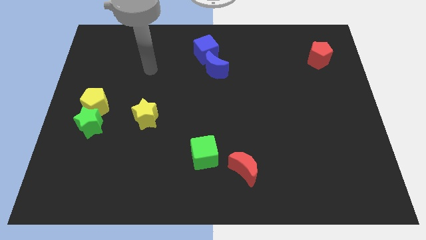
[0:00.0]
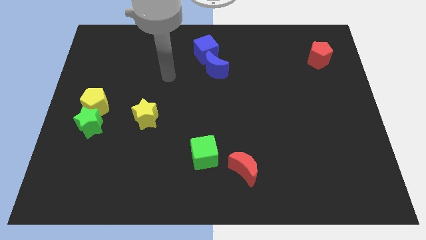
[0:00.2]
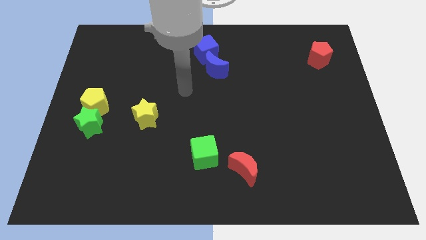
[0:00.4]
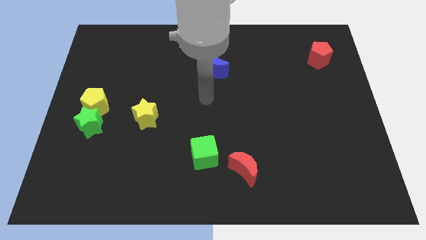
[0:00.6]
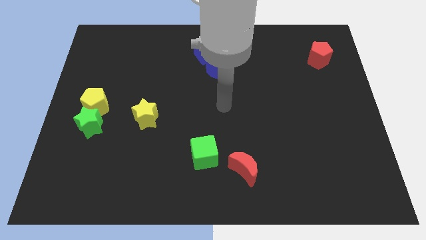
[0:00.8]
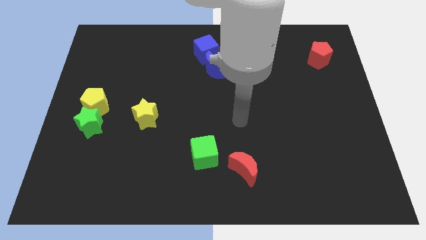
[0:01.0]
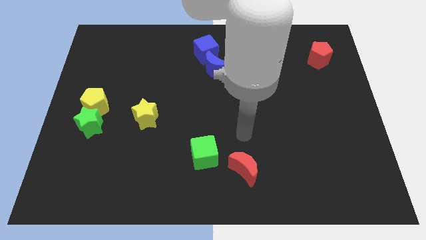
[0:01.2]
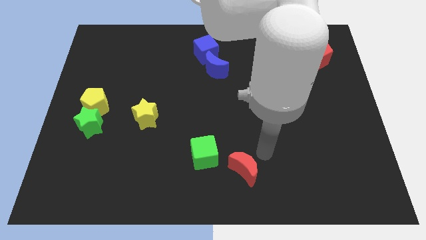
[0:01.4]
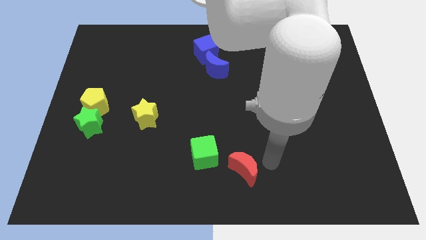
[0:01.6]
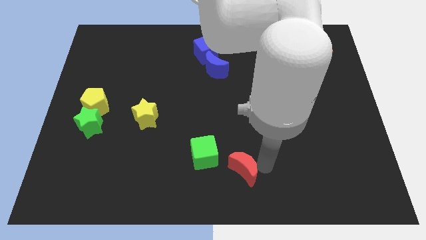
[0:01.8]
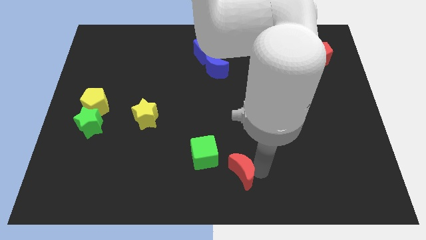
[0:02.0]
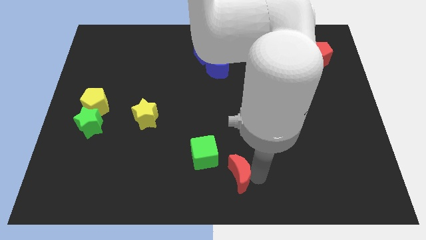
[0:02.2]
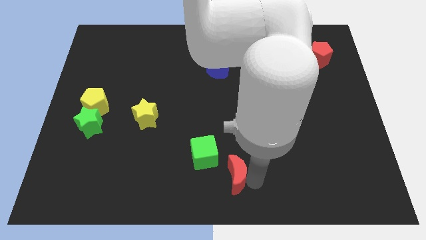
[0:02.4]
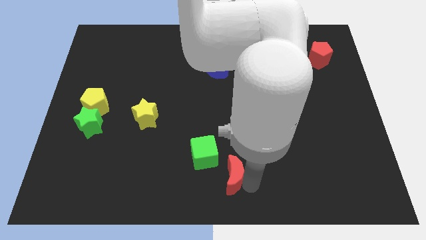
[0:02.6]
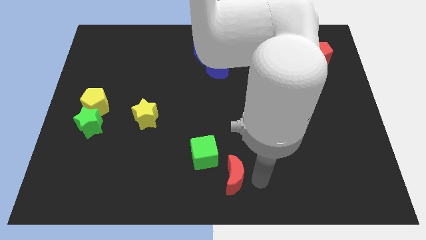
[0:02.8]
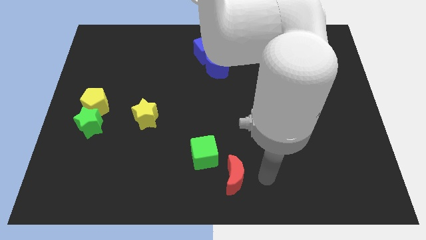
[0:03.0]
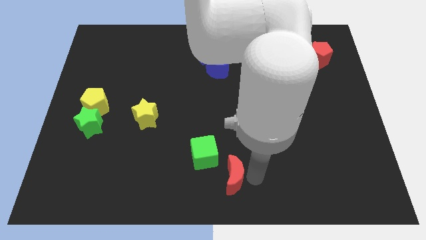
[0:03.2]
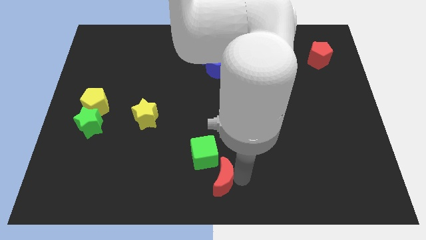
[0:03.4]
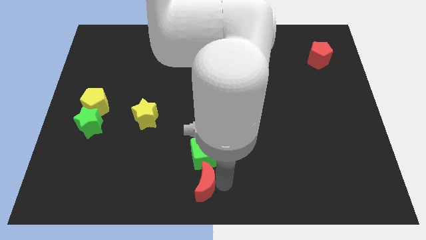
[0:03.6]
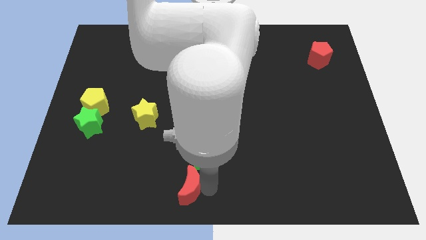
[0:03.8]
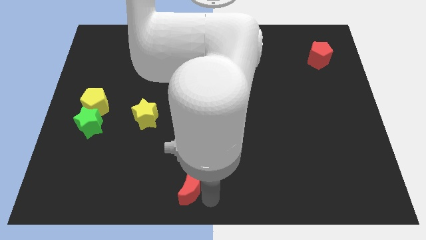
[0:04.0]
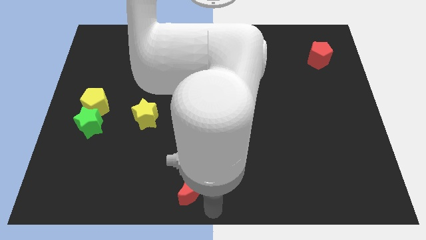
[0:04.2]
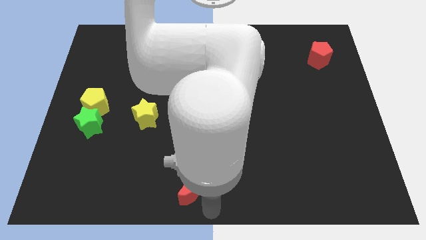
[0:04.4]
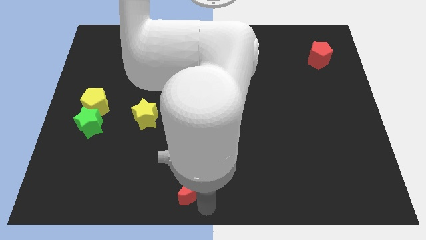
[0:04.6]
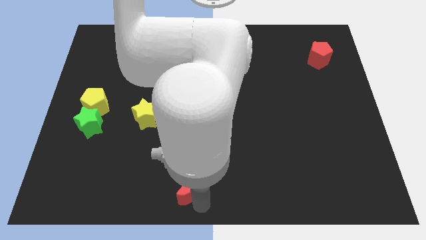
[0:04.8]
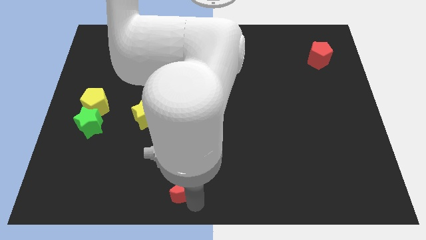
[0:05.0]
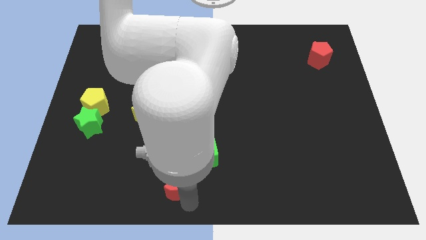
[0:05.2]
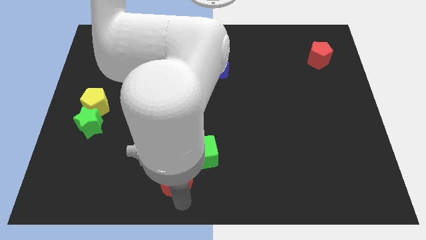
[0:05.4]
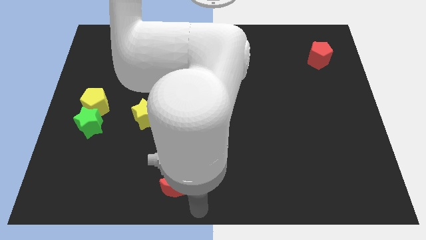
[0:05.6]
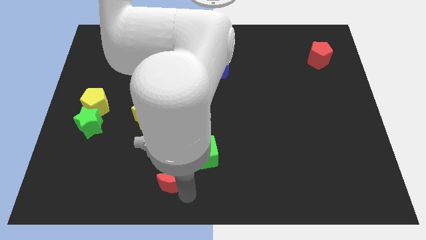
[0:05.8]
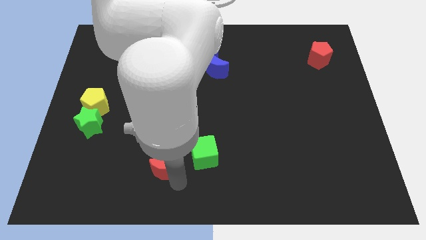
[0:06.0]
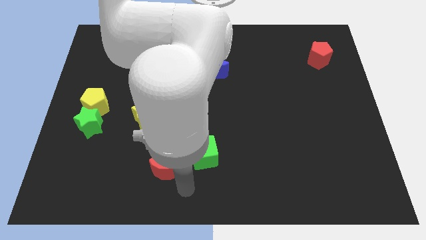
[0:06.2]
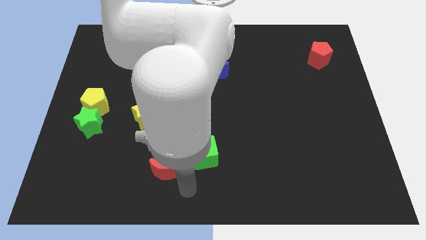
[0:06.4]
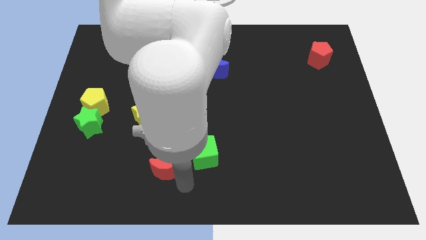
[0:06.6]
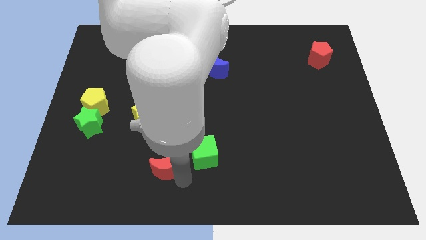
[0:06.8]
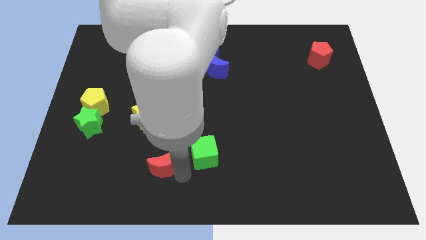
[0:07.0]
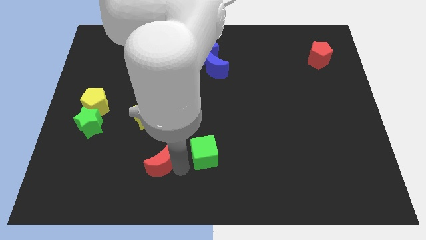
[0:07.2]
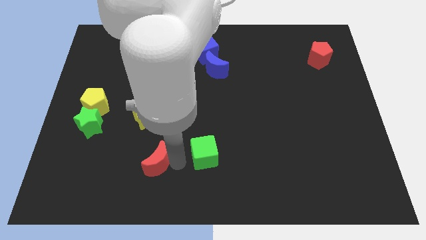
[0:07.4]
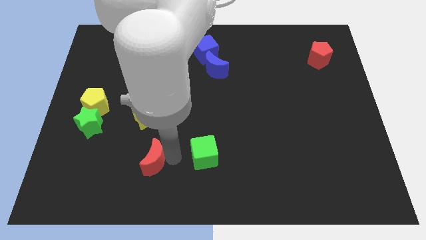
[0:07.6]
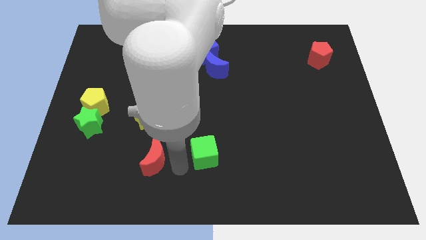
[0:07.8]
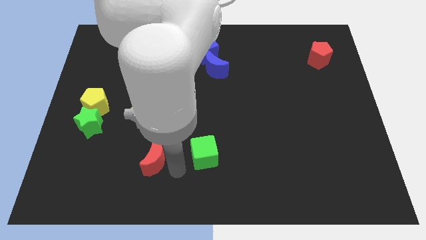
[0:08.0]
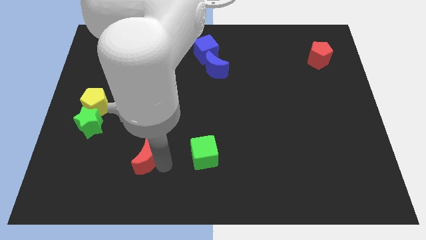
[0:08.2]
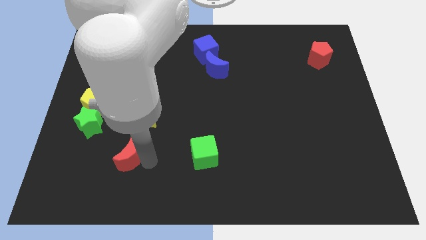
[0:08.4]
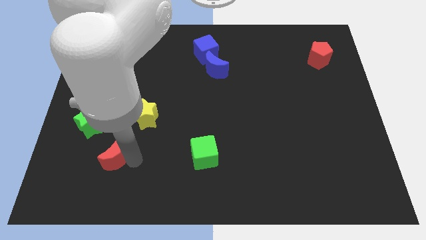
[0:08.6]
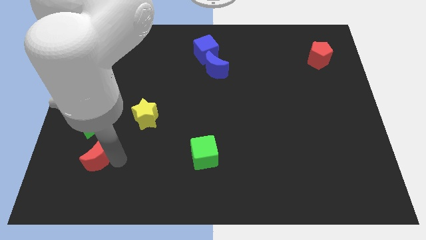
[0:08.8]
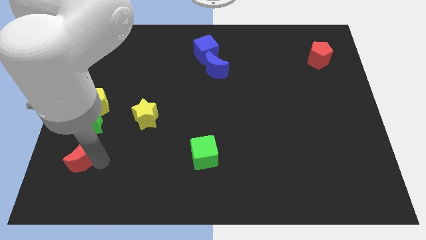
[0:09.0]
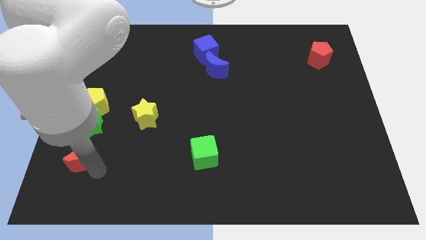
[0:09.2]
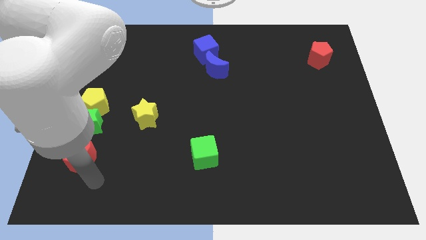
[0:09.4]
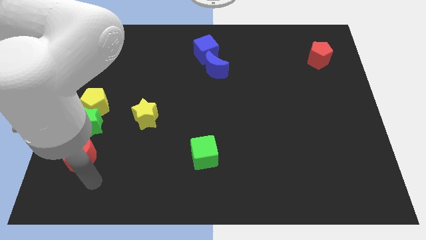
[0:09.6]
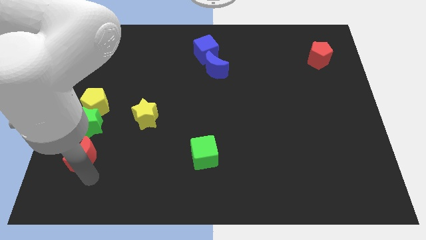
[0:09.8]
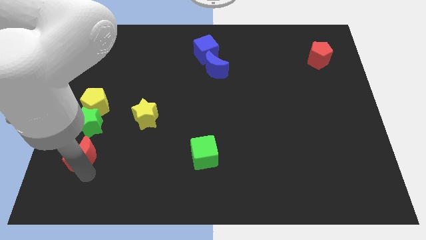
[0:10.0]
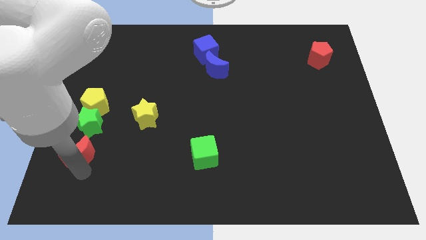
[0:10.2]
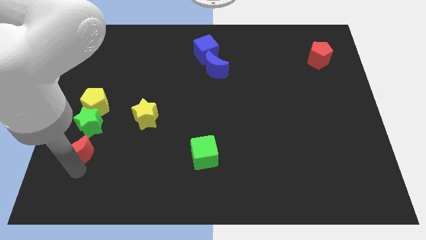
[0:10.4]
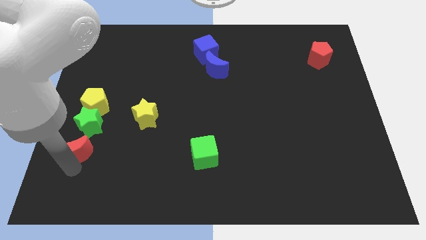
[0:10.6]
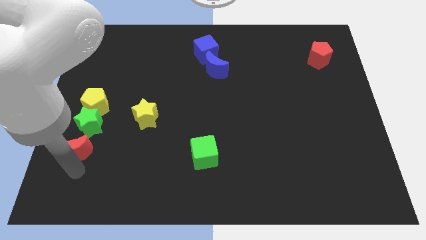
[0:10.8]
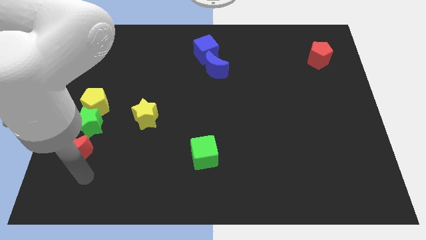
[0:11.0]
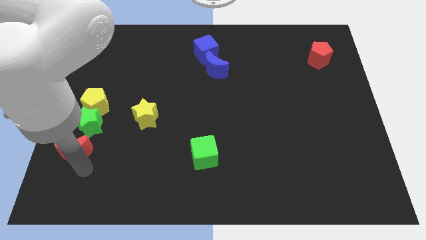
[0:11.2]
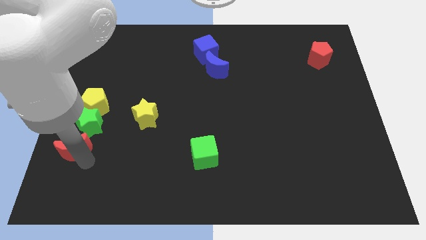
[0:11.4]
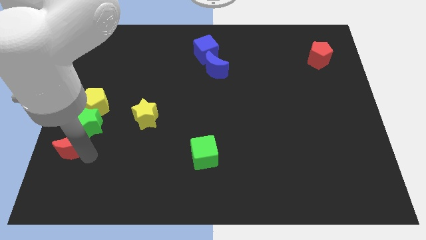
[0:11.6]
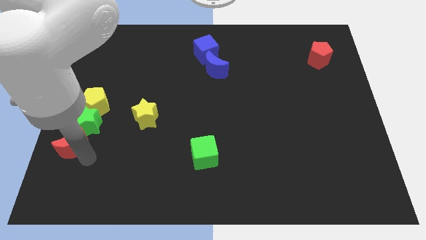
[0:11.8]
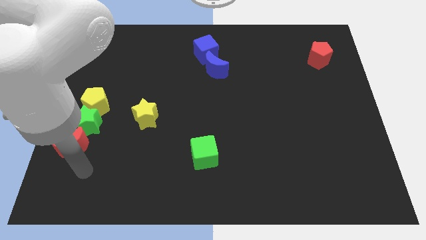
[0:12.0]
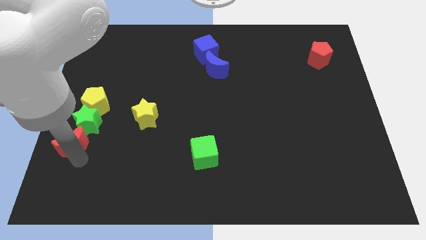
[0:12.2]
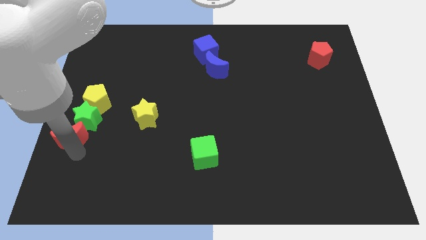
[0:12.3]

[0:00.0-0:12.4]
slide the red moon to the center left

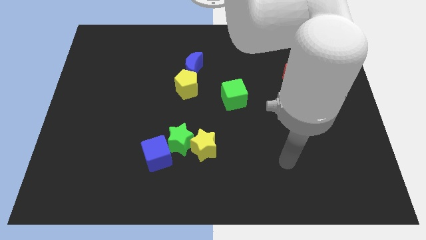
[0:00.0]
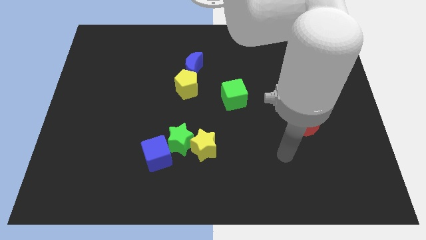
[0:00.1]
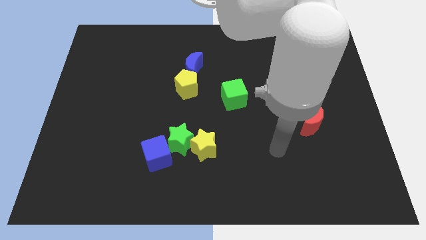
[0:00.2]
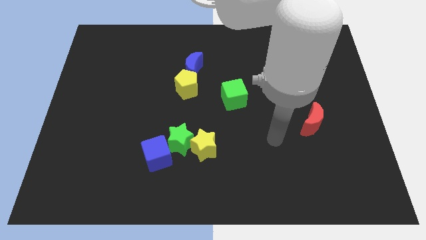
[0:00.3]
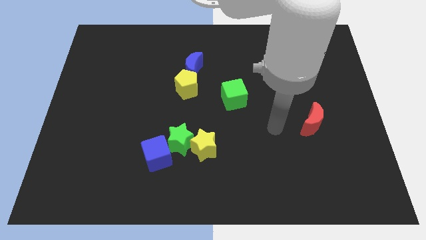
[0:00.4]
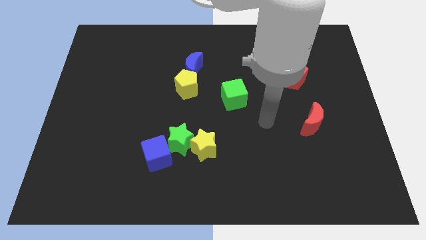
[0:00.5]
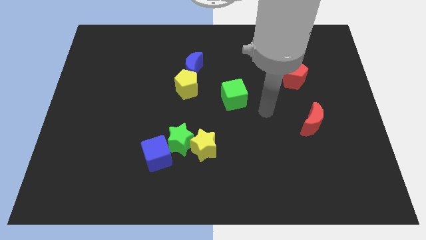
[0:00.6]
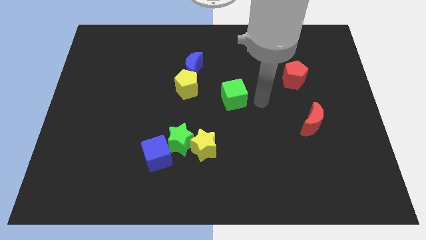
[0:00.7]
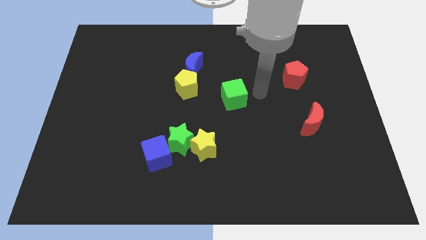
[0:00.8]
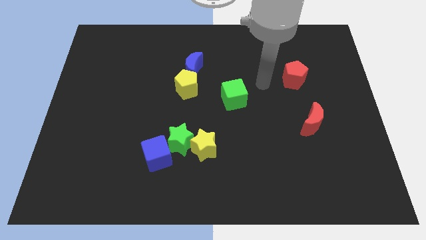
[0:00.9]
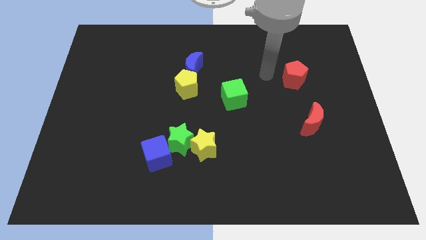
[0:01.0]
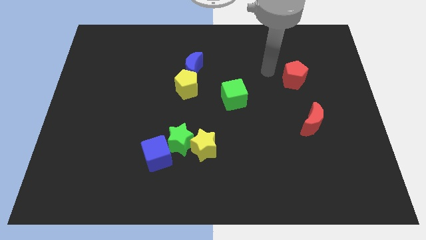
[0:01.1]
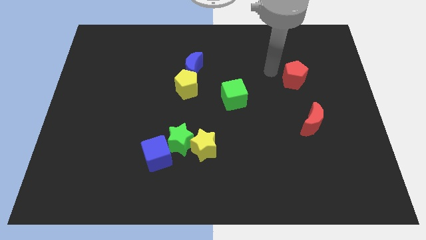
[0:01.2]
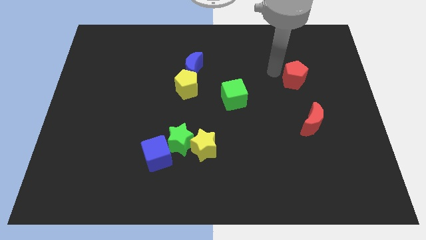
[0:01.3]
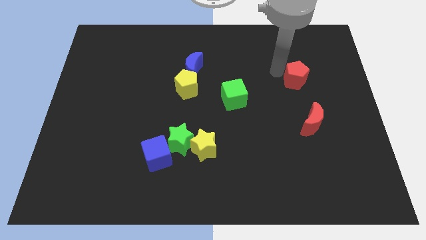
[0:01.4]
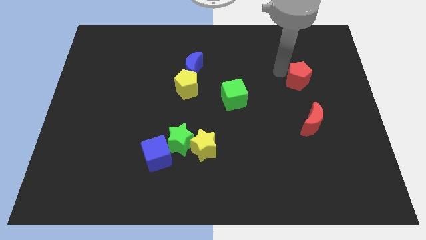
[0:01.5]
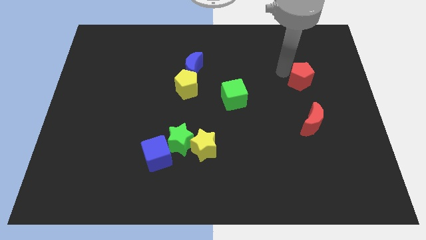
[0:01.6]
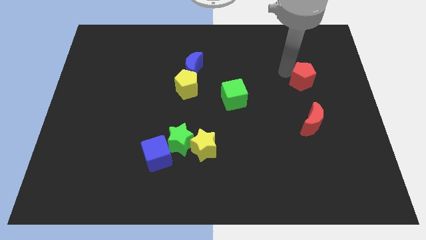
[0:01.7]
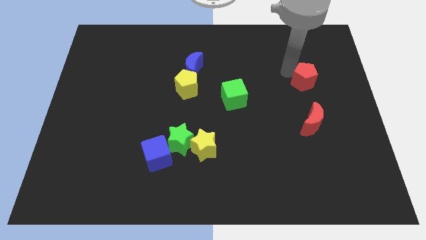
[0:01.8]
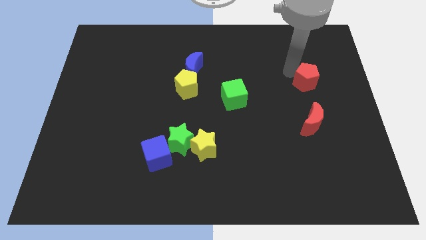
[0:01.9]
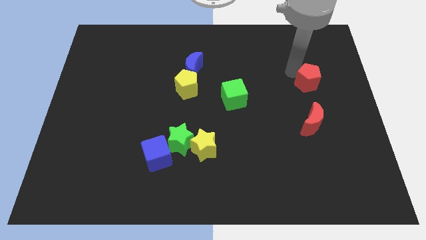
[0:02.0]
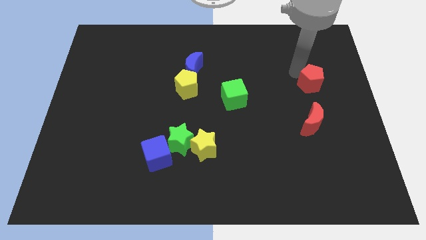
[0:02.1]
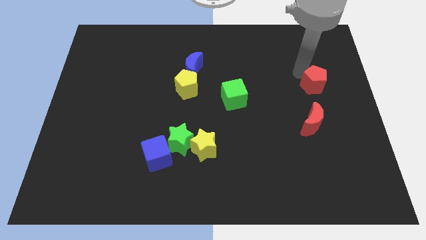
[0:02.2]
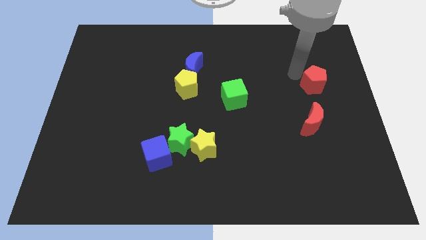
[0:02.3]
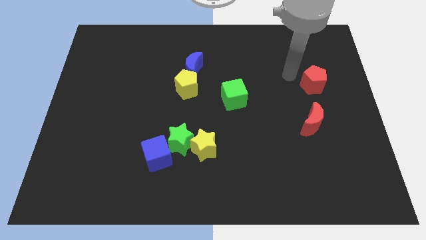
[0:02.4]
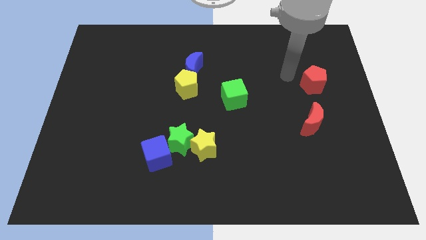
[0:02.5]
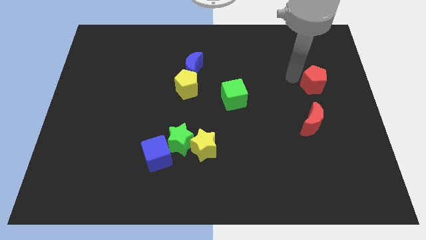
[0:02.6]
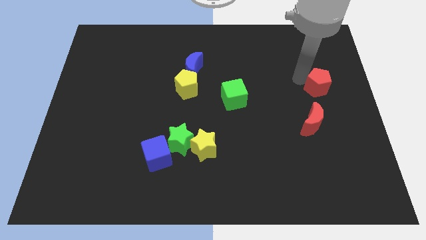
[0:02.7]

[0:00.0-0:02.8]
put the red pentagon to the right side of the board
